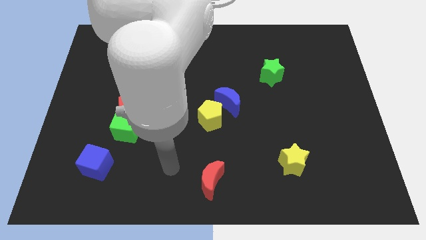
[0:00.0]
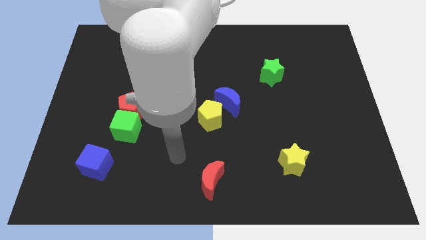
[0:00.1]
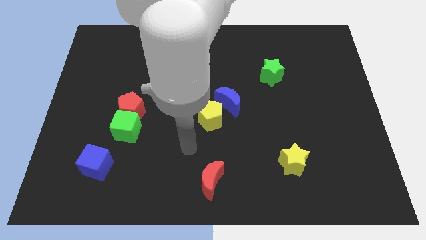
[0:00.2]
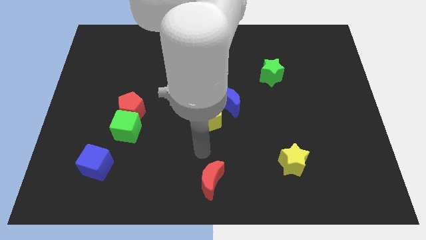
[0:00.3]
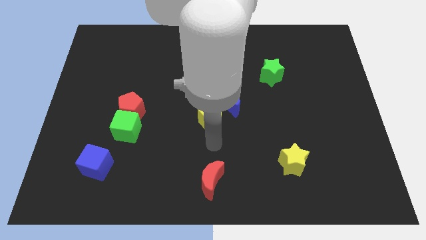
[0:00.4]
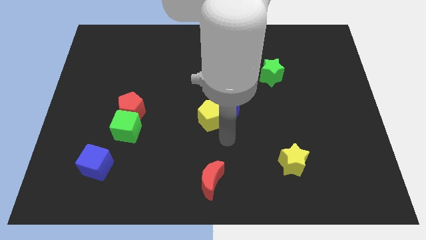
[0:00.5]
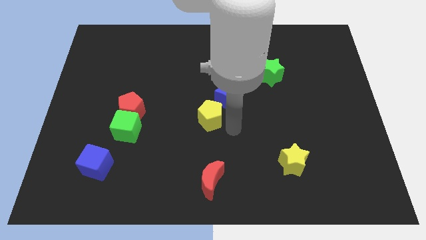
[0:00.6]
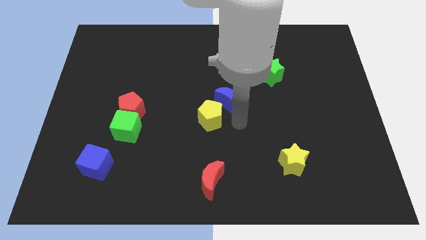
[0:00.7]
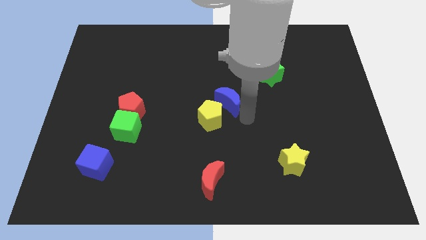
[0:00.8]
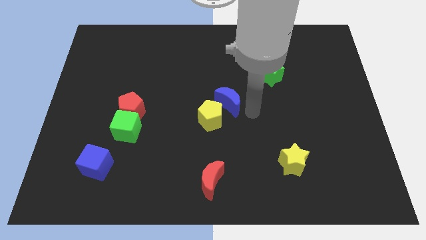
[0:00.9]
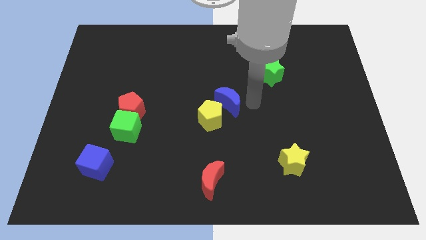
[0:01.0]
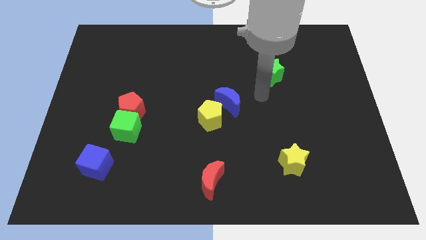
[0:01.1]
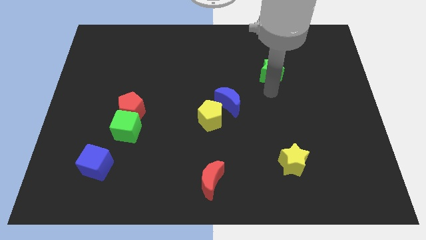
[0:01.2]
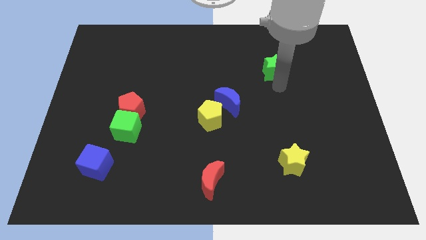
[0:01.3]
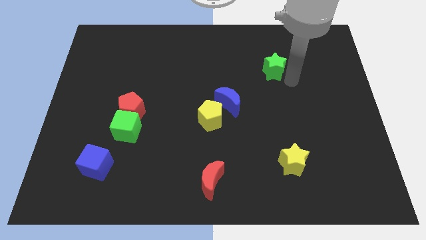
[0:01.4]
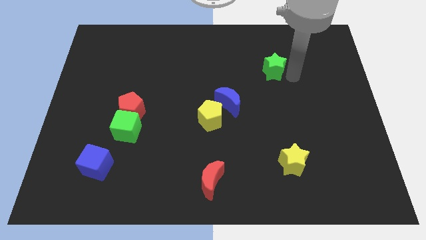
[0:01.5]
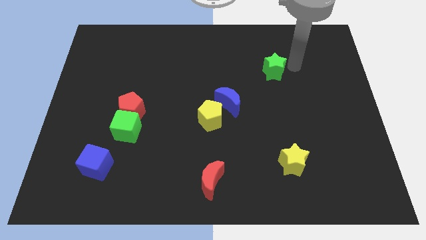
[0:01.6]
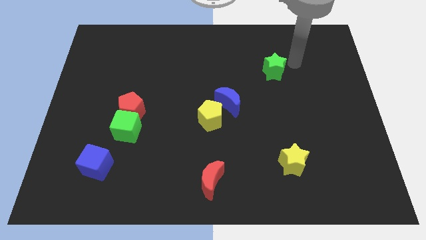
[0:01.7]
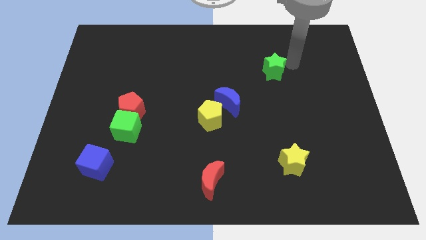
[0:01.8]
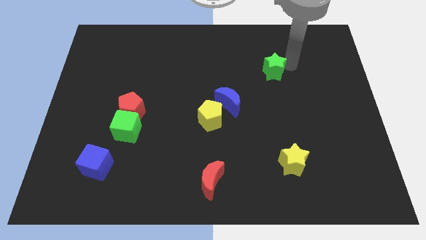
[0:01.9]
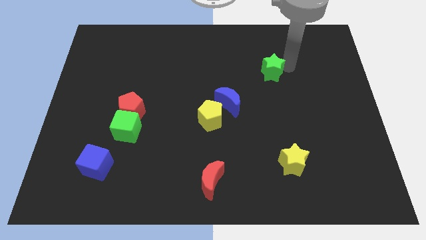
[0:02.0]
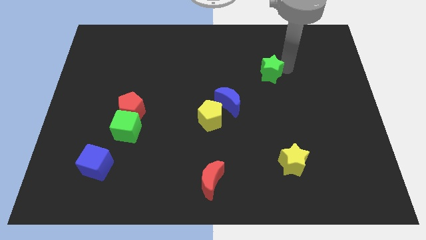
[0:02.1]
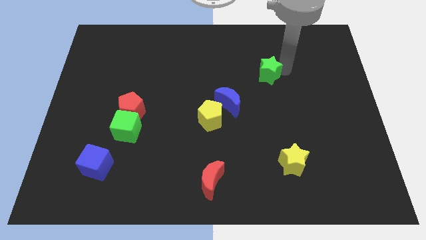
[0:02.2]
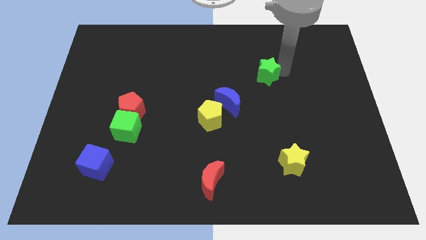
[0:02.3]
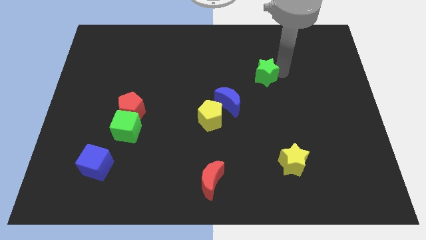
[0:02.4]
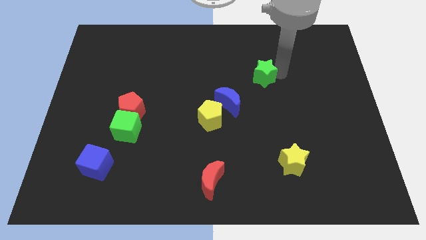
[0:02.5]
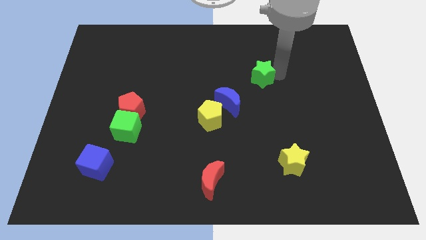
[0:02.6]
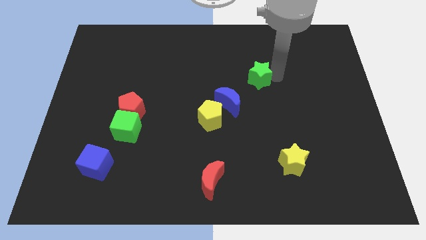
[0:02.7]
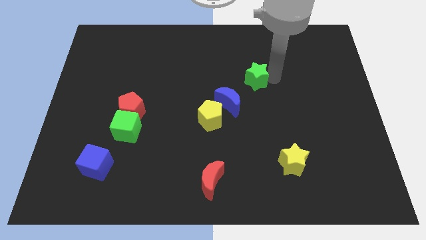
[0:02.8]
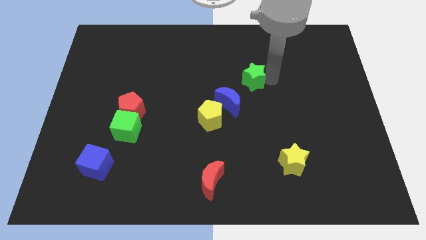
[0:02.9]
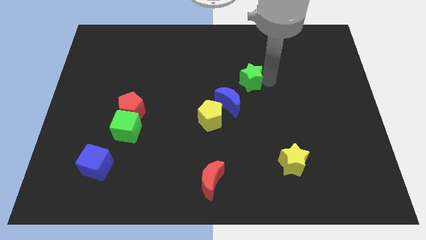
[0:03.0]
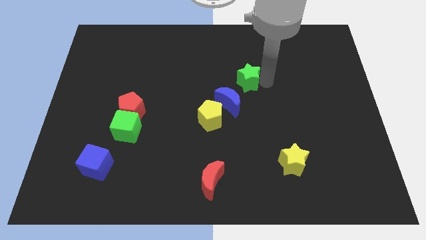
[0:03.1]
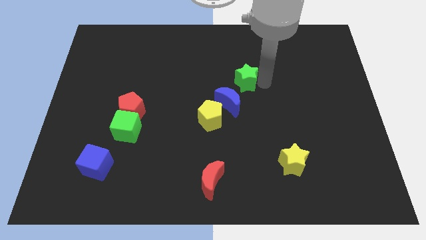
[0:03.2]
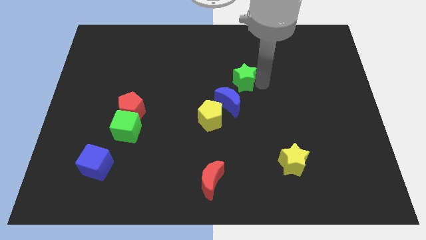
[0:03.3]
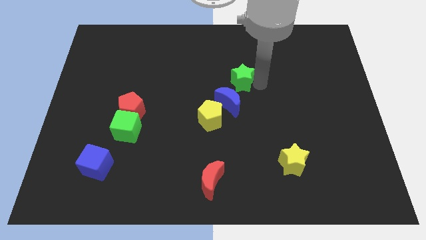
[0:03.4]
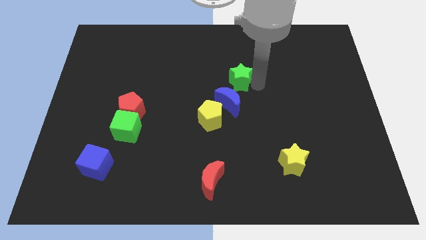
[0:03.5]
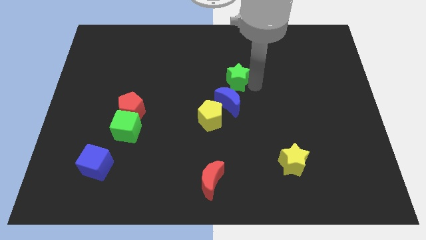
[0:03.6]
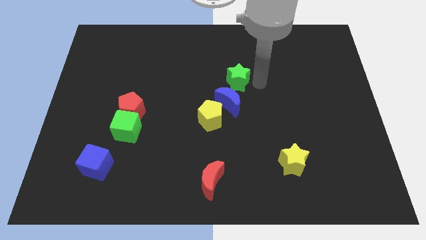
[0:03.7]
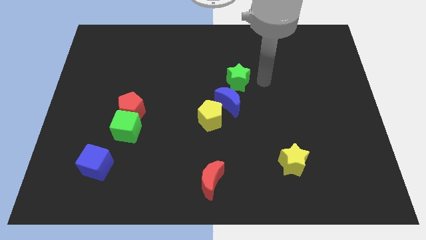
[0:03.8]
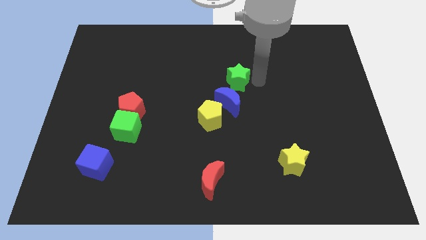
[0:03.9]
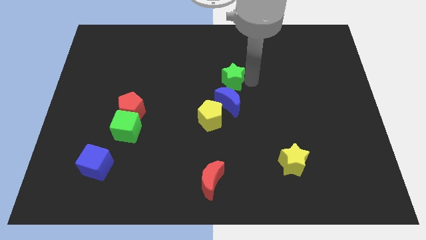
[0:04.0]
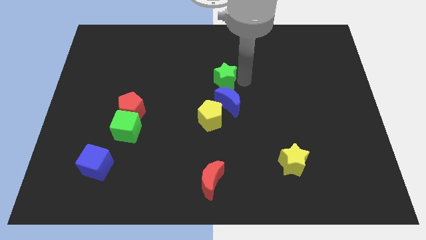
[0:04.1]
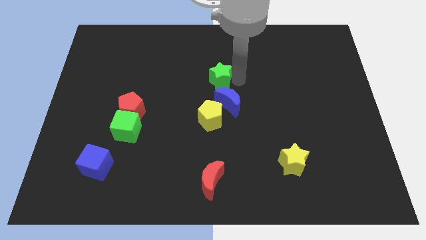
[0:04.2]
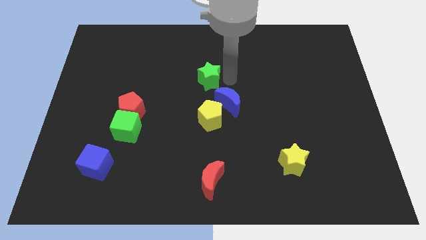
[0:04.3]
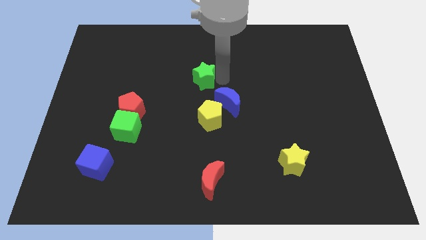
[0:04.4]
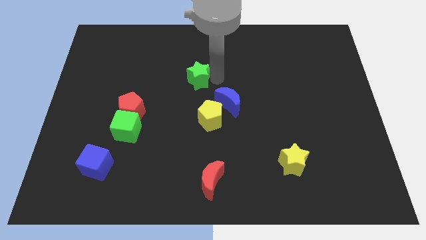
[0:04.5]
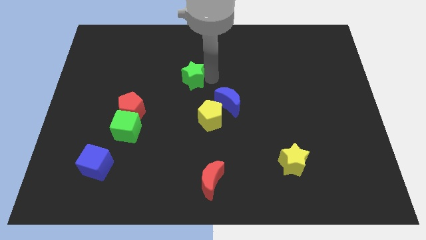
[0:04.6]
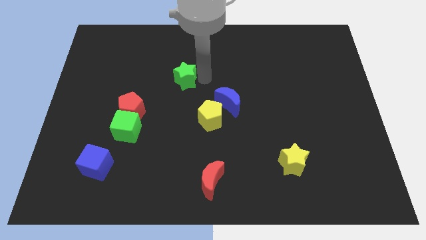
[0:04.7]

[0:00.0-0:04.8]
push the green star to the left

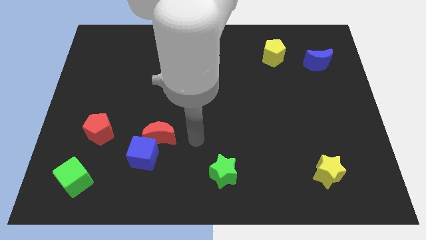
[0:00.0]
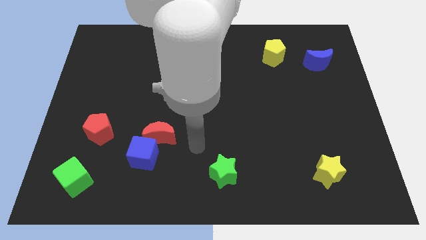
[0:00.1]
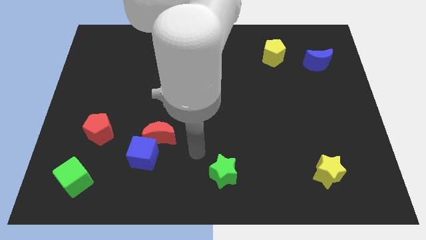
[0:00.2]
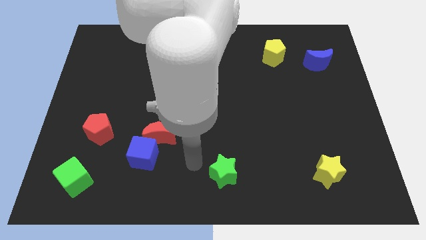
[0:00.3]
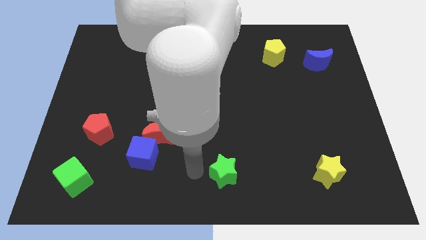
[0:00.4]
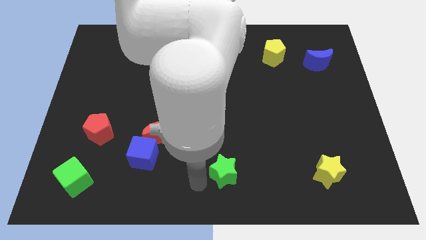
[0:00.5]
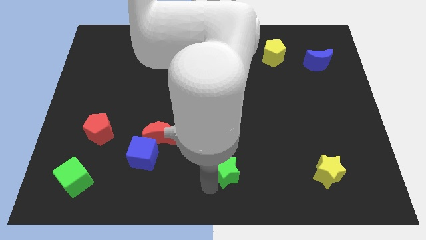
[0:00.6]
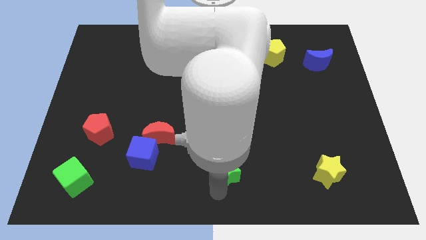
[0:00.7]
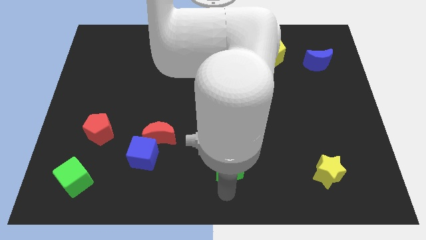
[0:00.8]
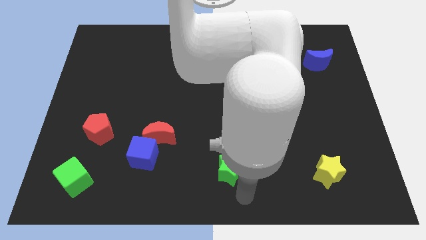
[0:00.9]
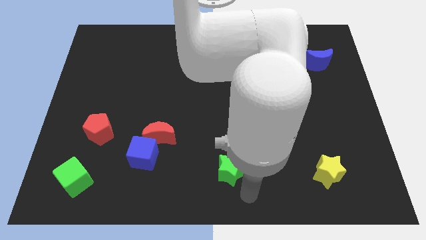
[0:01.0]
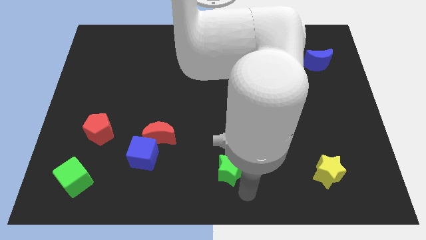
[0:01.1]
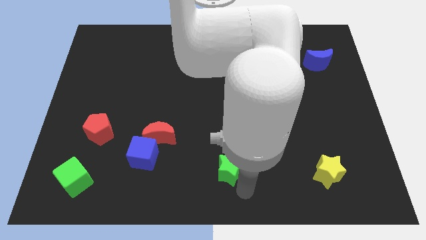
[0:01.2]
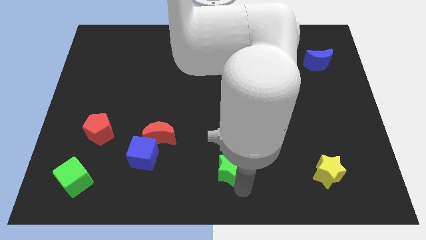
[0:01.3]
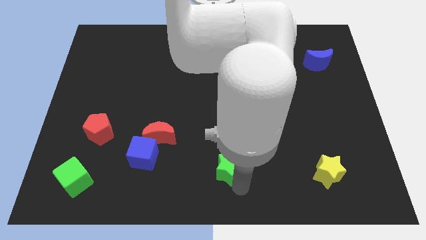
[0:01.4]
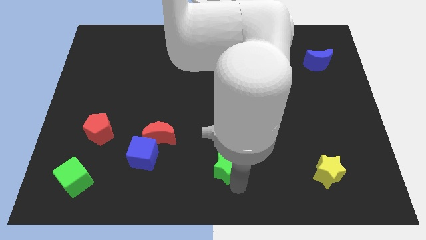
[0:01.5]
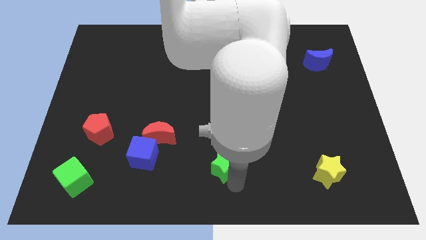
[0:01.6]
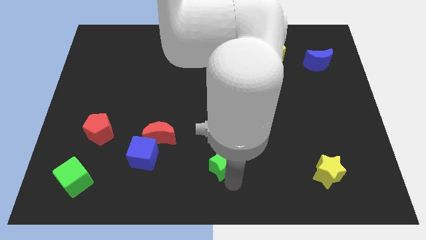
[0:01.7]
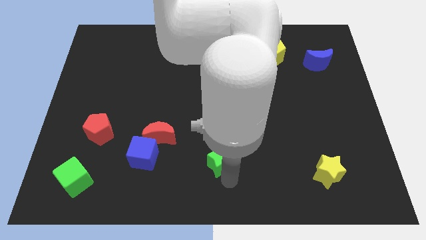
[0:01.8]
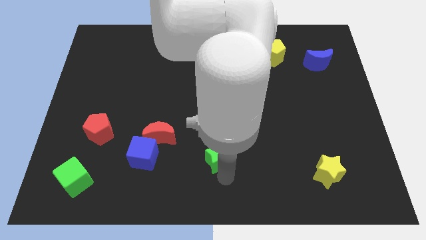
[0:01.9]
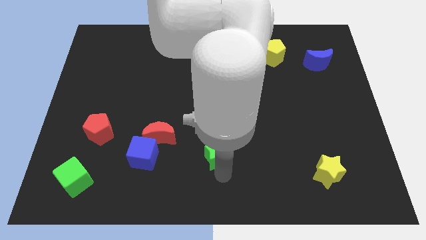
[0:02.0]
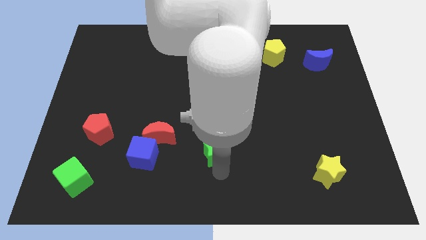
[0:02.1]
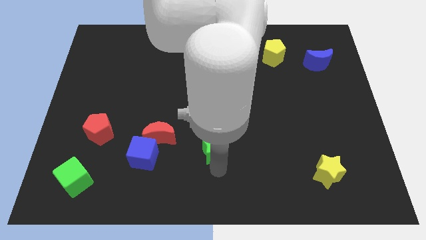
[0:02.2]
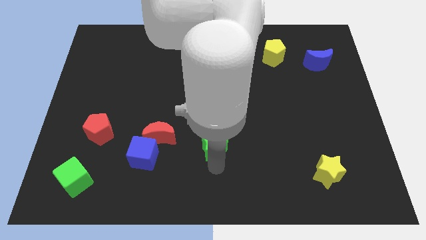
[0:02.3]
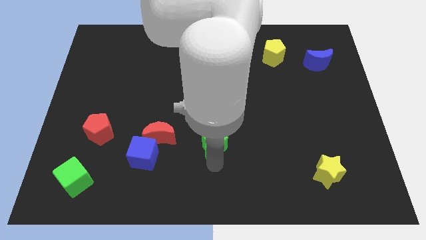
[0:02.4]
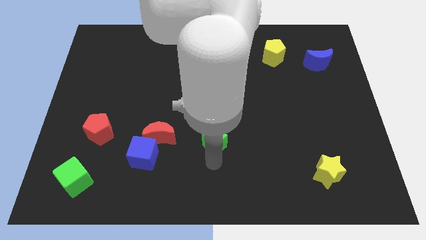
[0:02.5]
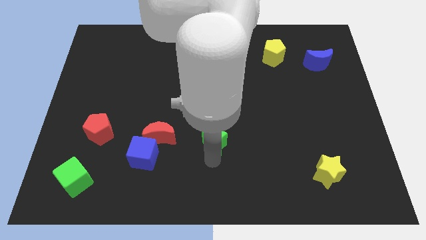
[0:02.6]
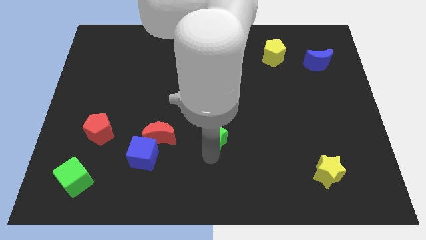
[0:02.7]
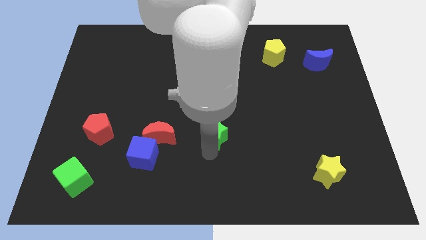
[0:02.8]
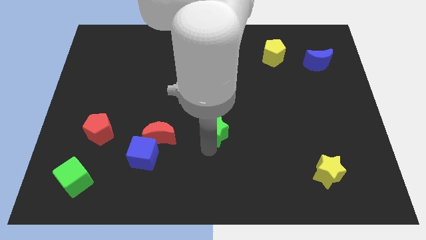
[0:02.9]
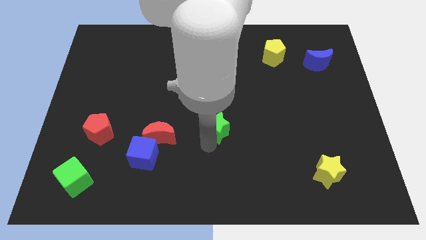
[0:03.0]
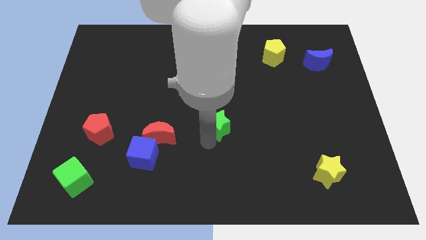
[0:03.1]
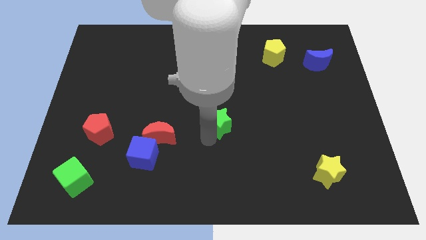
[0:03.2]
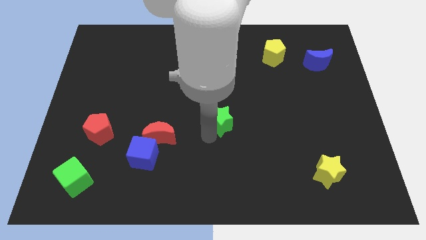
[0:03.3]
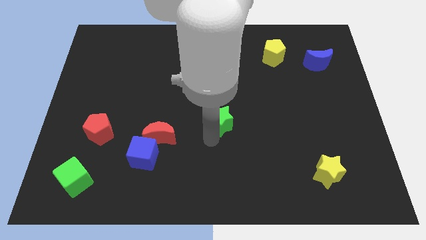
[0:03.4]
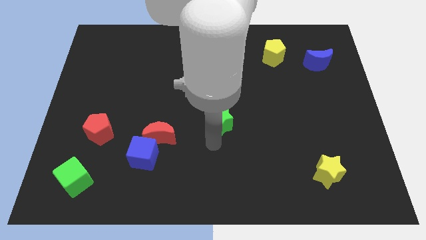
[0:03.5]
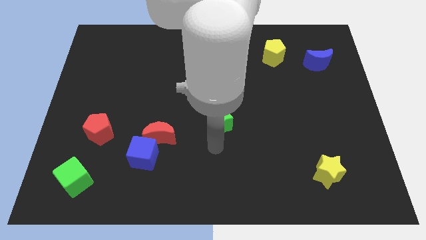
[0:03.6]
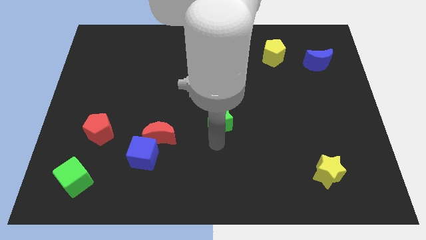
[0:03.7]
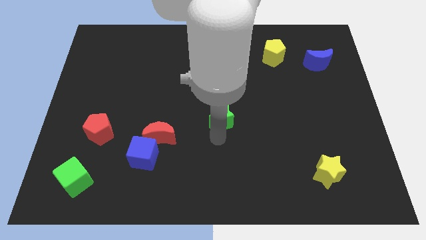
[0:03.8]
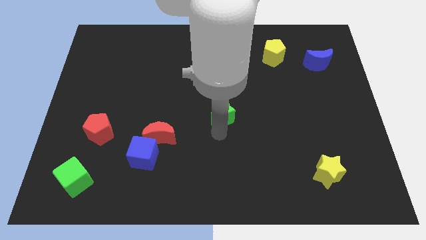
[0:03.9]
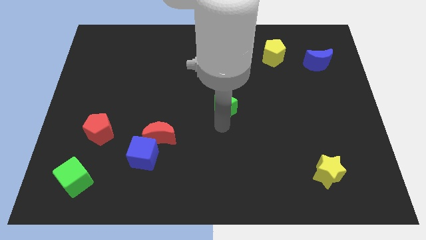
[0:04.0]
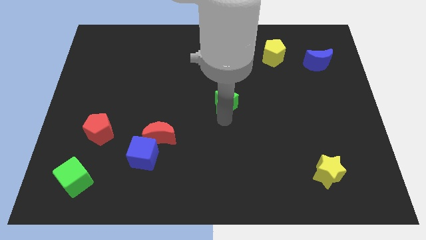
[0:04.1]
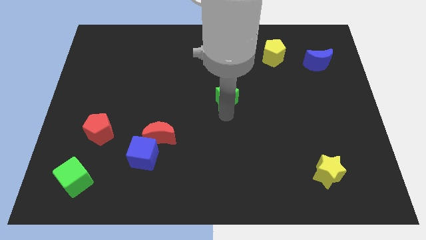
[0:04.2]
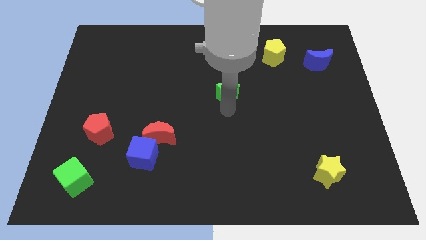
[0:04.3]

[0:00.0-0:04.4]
slide the green star upwards
